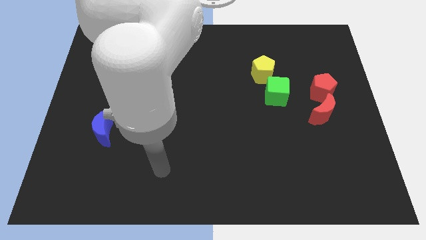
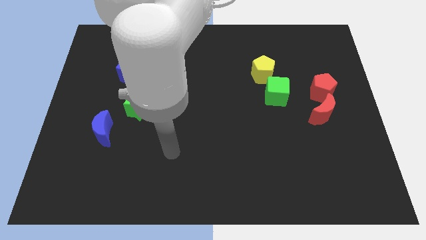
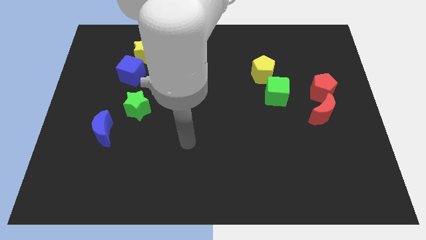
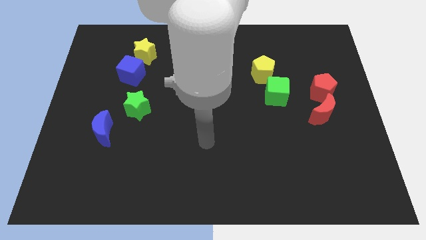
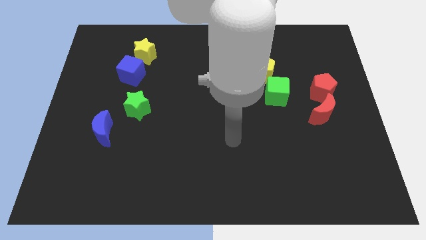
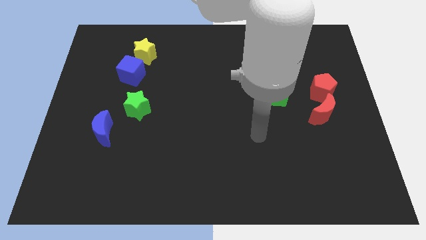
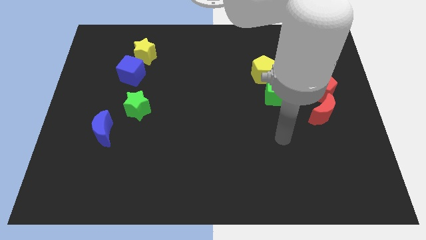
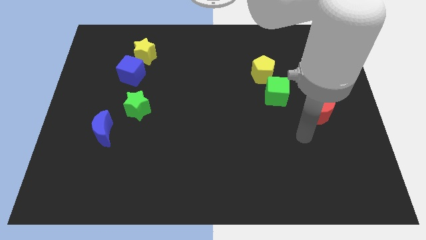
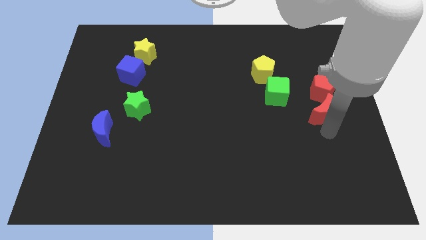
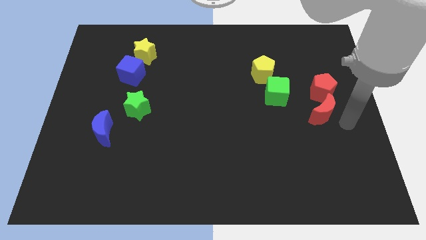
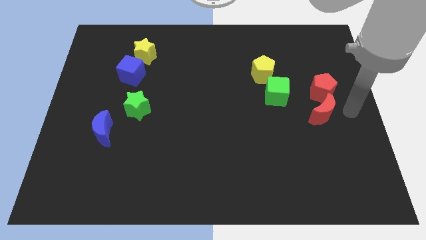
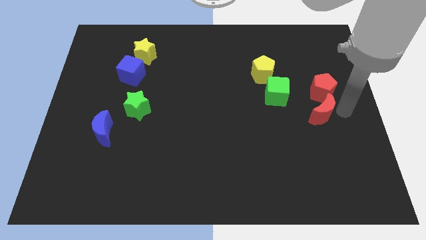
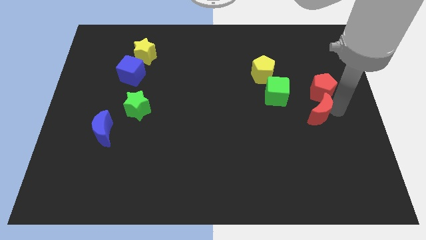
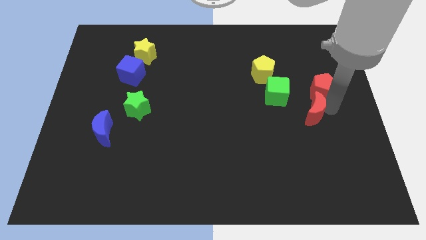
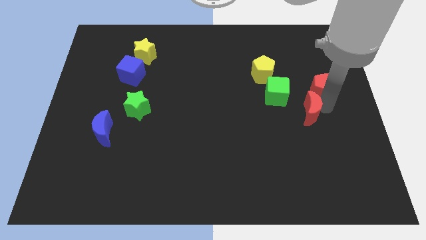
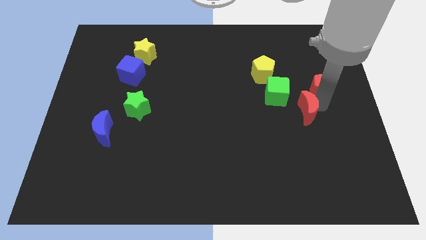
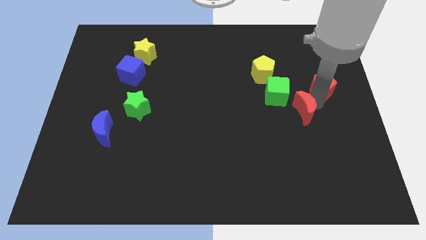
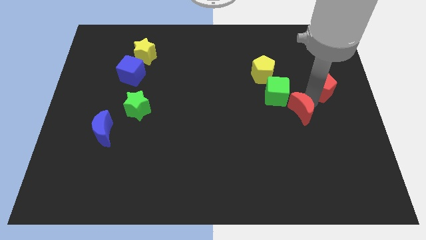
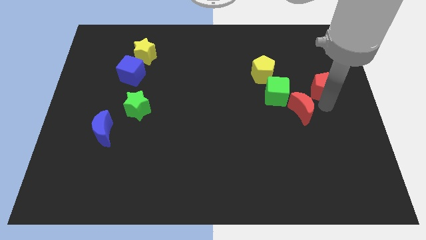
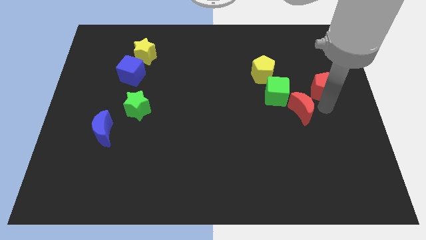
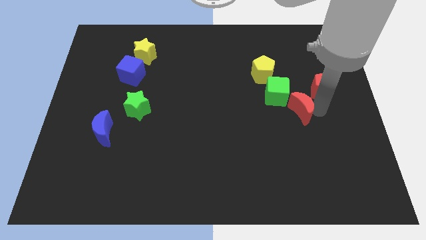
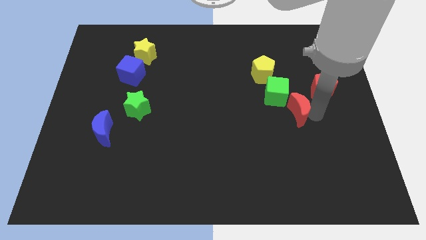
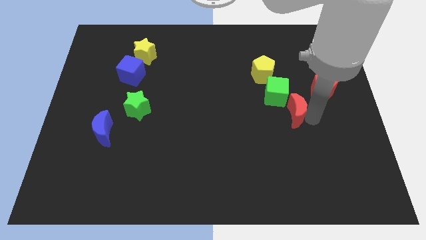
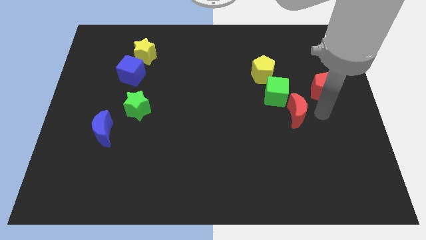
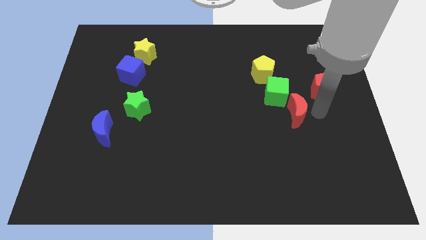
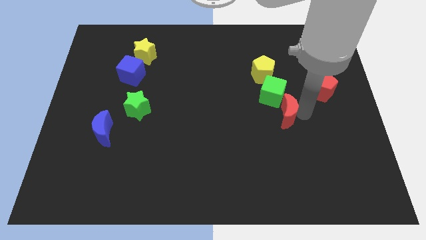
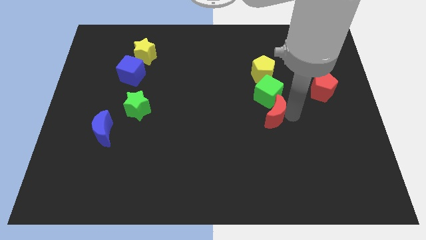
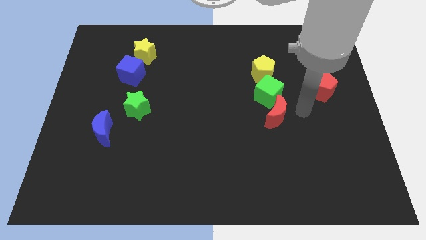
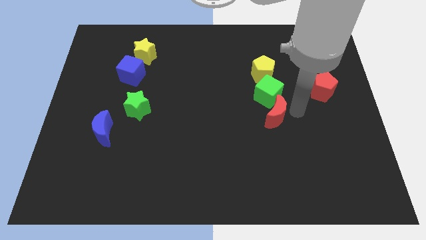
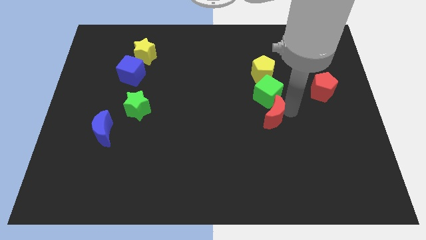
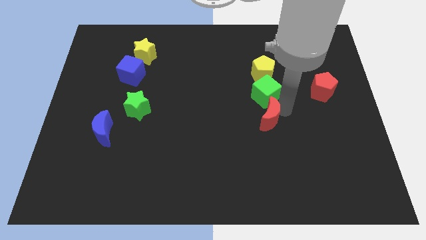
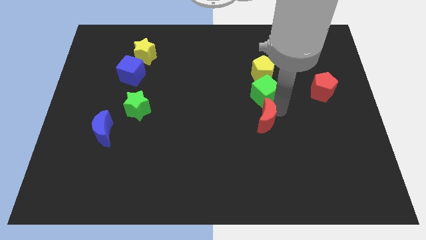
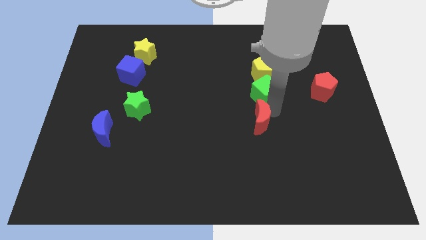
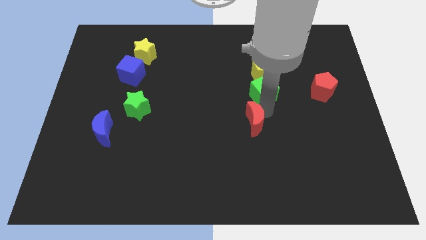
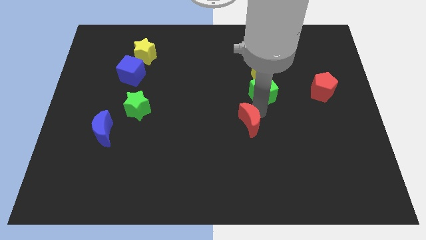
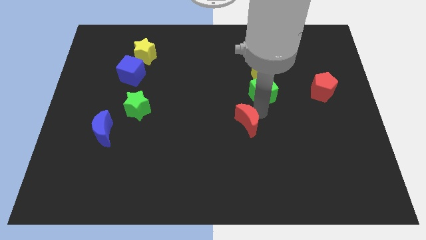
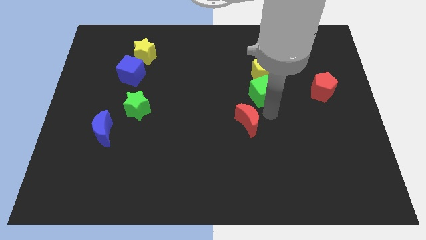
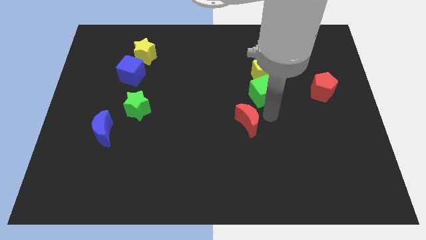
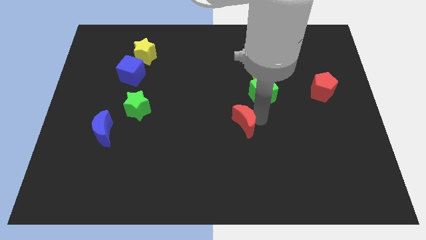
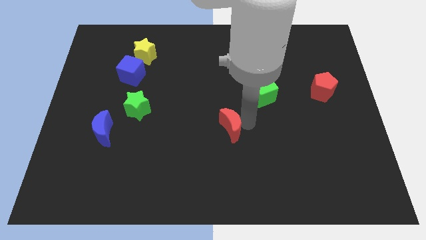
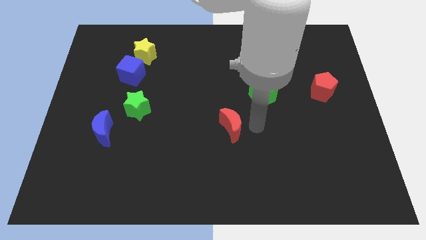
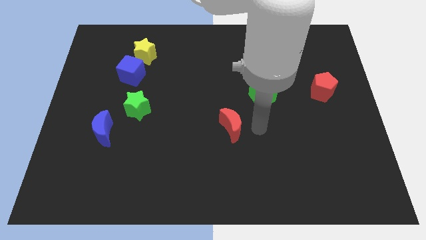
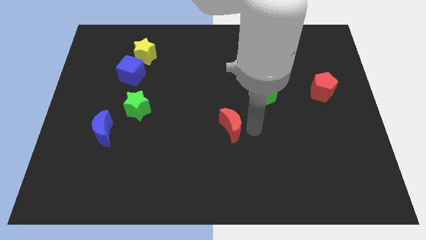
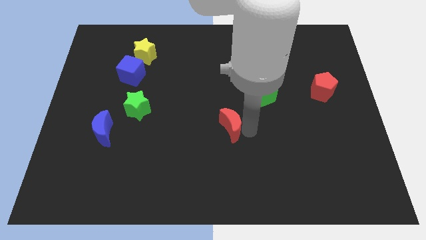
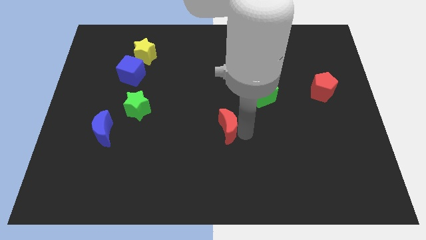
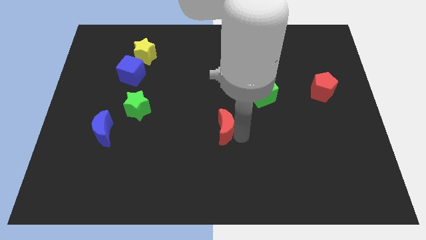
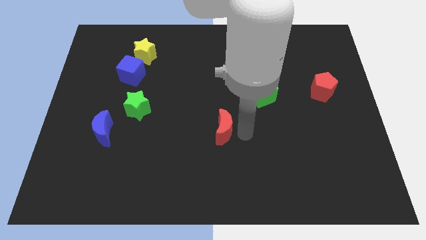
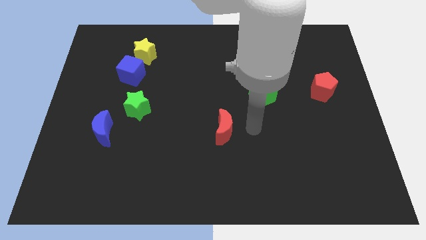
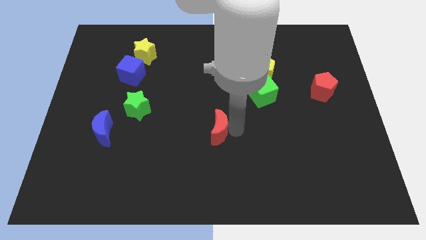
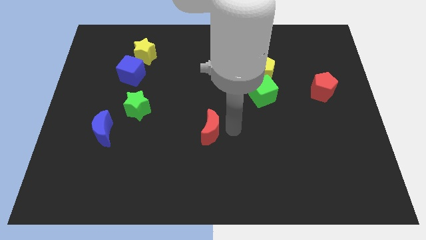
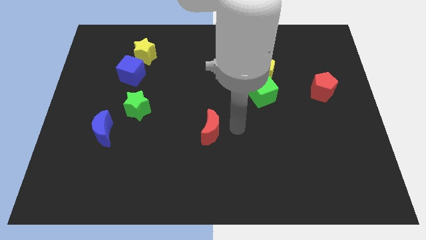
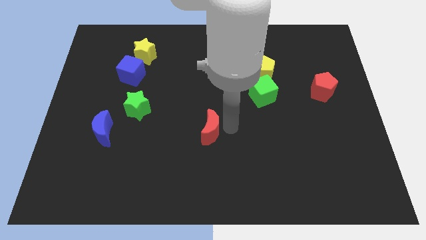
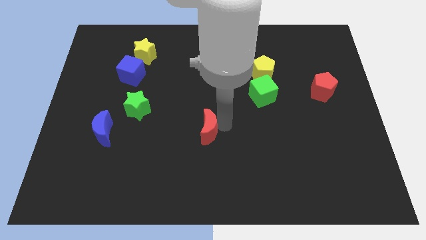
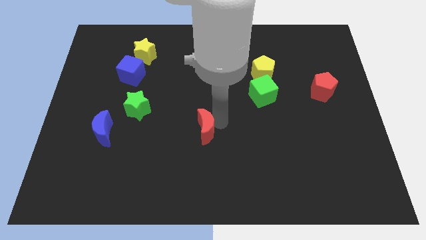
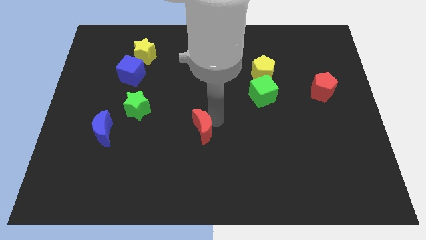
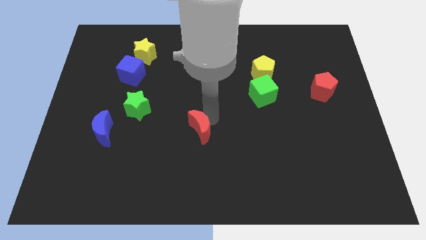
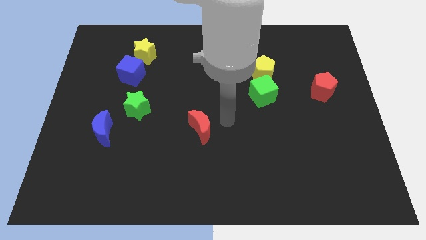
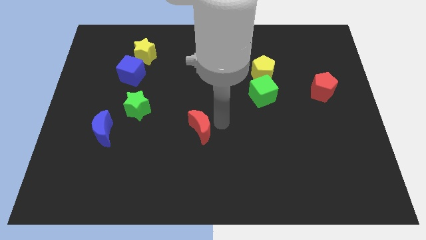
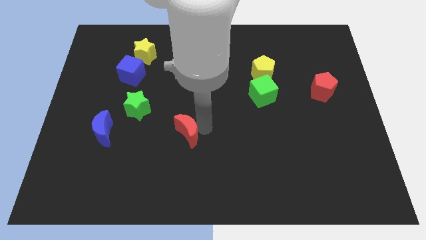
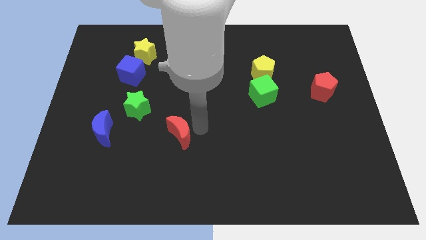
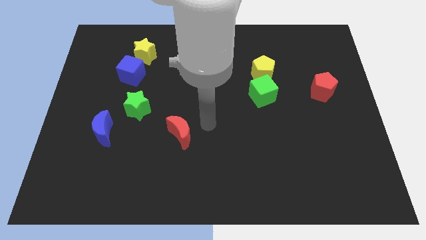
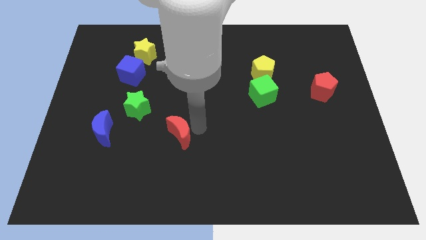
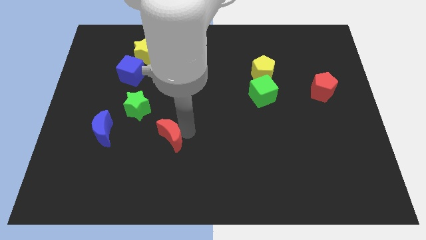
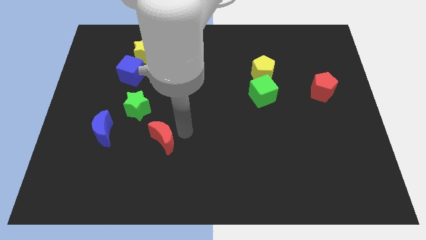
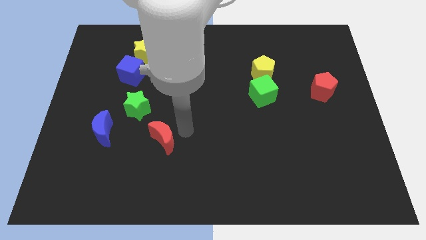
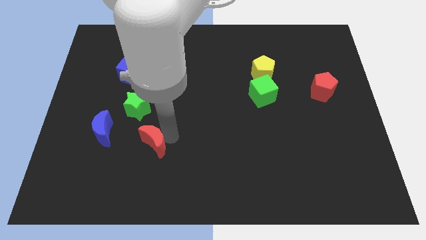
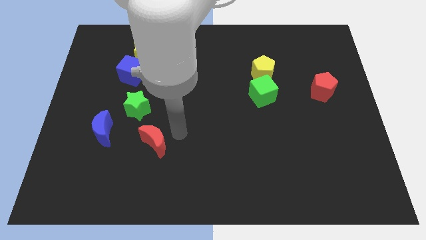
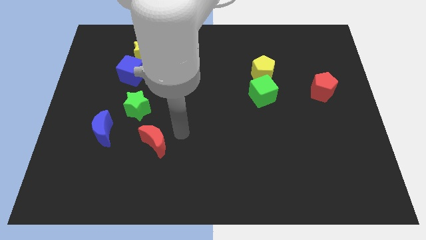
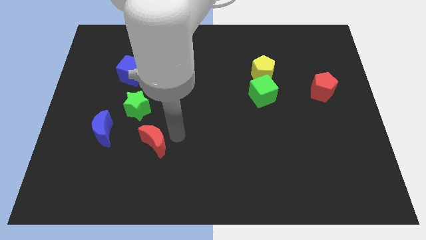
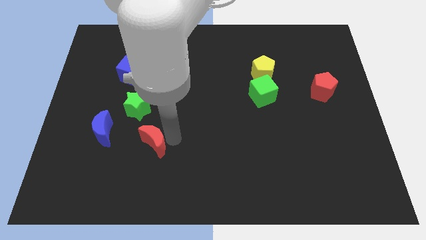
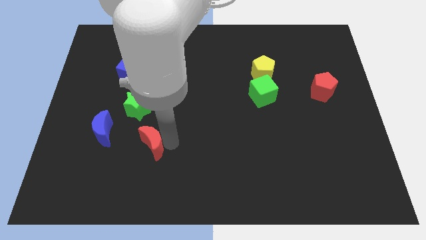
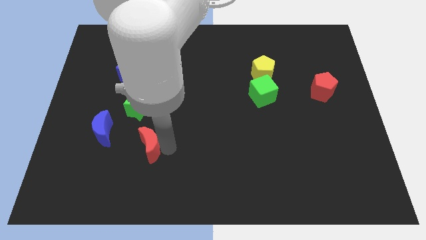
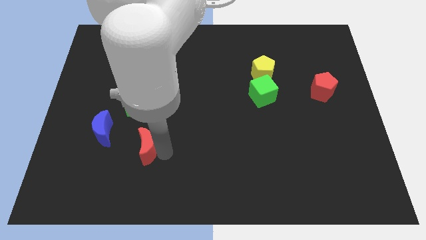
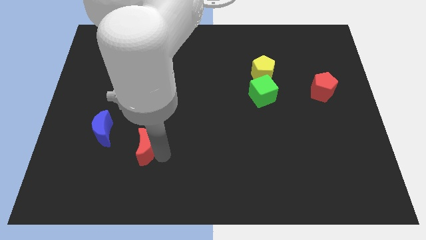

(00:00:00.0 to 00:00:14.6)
push the red moon diagonally down and to the right of the blue moon
